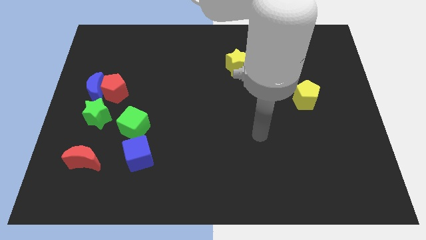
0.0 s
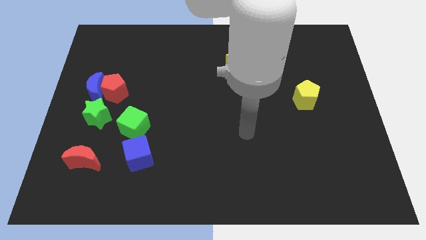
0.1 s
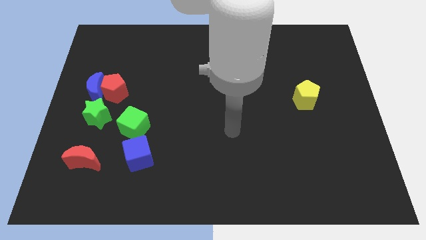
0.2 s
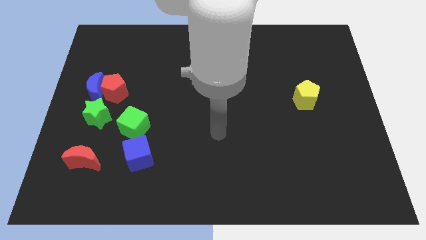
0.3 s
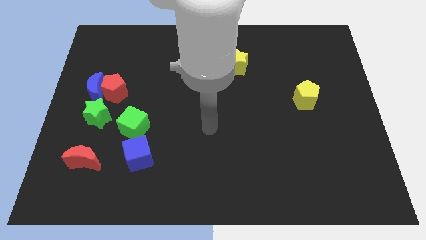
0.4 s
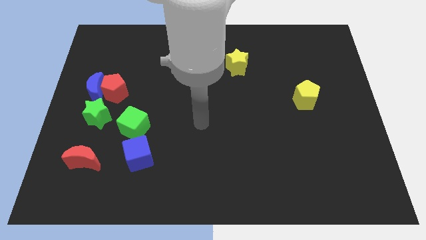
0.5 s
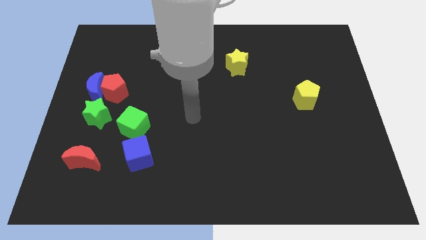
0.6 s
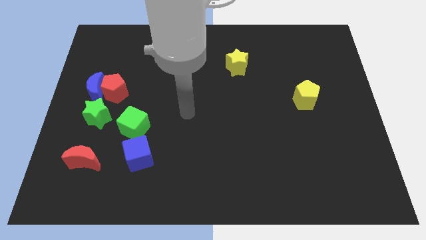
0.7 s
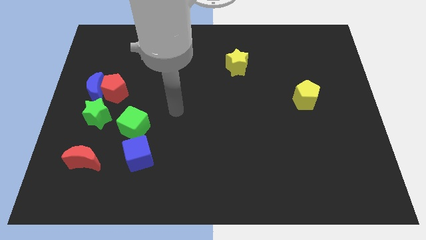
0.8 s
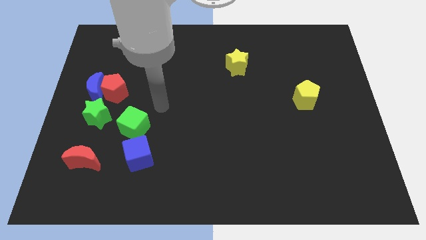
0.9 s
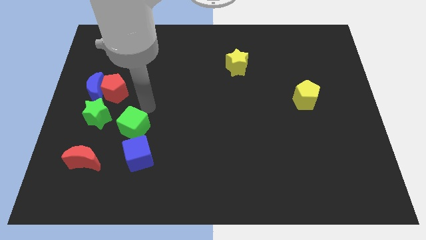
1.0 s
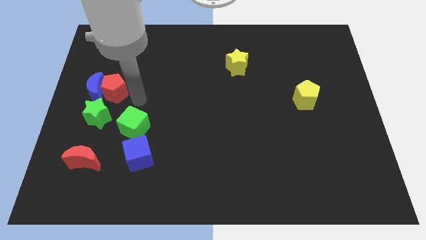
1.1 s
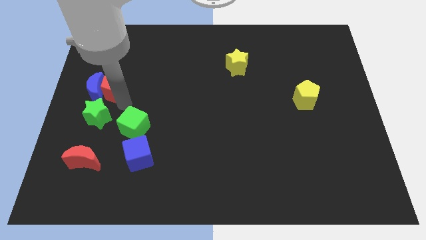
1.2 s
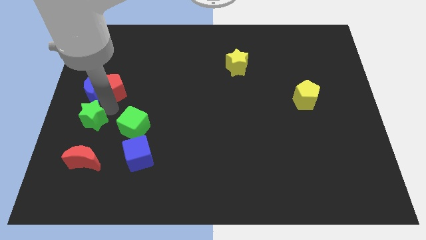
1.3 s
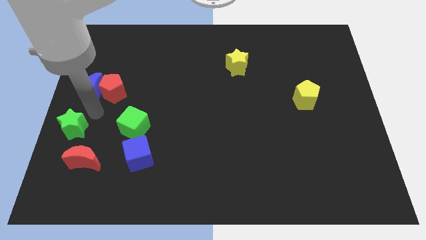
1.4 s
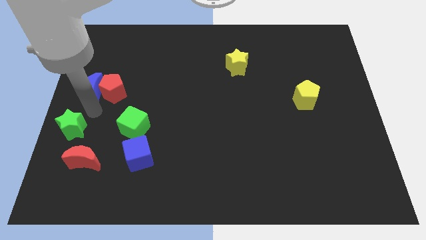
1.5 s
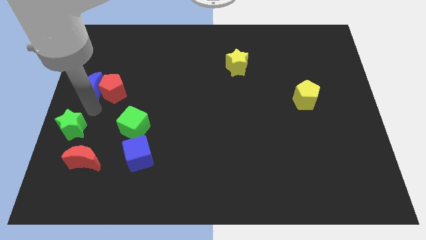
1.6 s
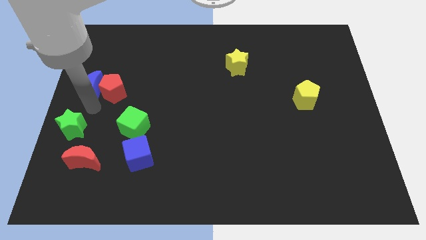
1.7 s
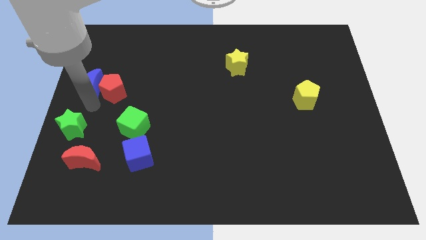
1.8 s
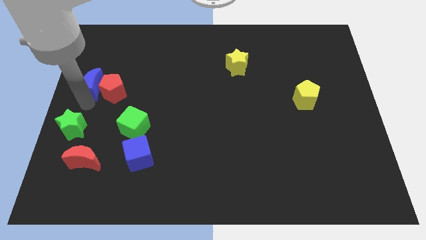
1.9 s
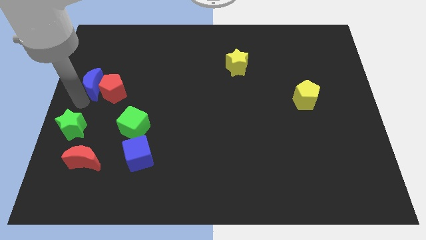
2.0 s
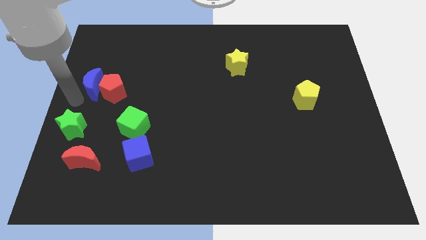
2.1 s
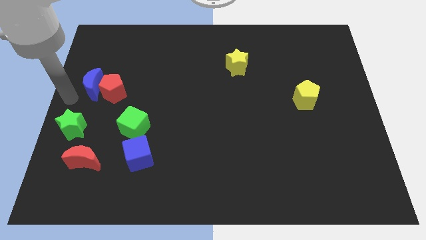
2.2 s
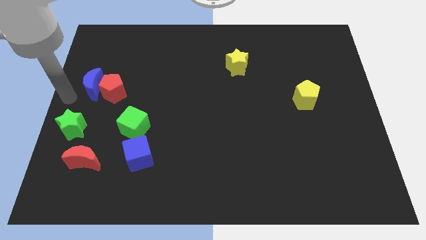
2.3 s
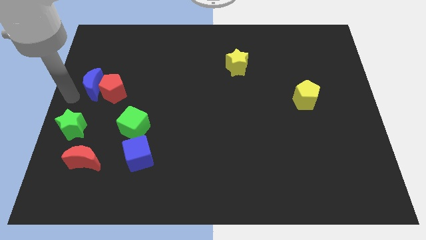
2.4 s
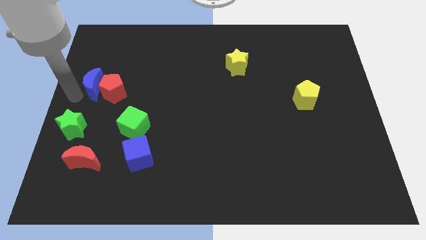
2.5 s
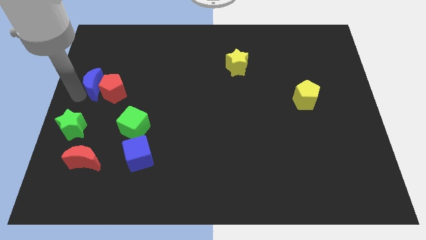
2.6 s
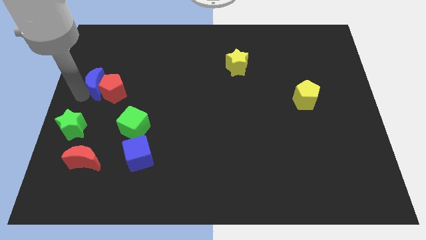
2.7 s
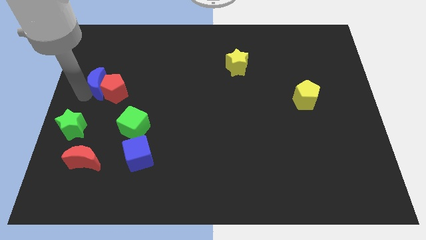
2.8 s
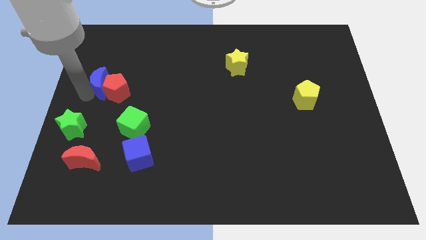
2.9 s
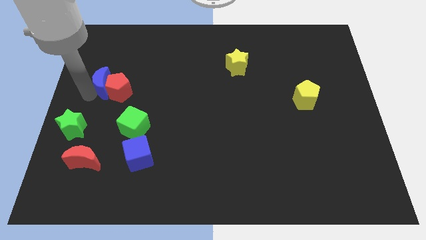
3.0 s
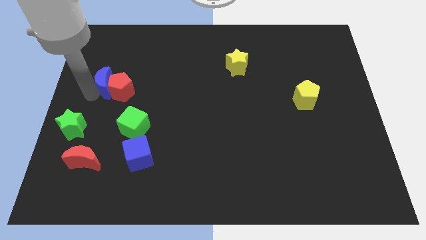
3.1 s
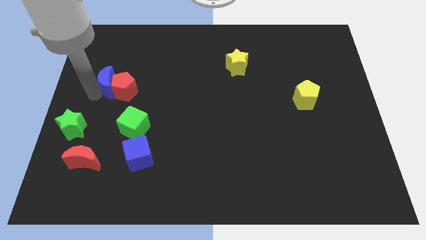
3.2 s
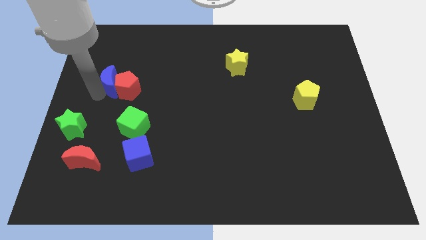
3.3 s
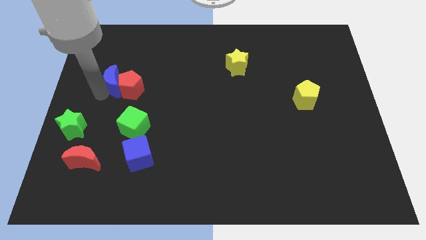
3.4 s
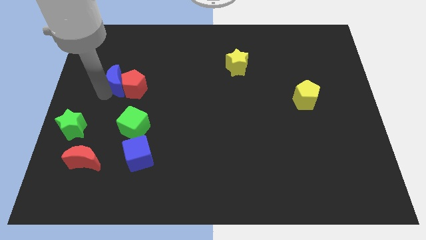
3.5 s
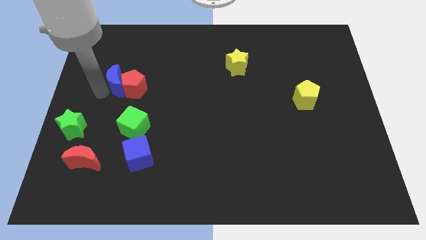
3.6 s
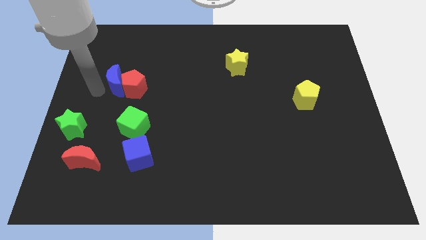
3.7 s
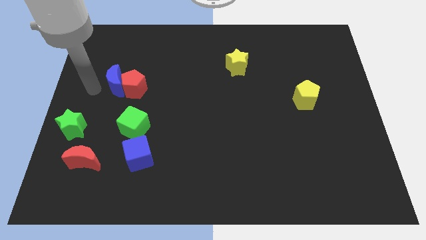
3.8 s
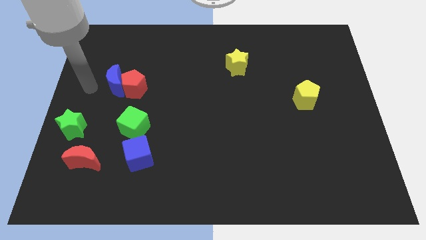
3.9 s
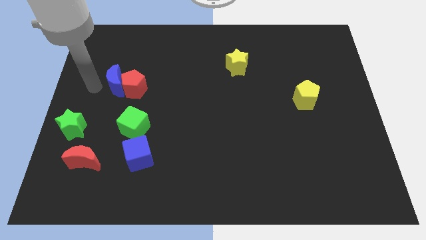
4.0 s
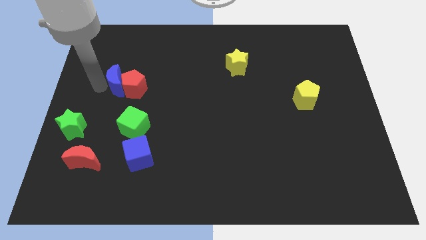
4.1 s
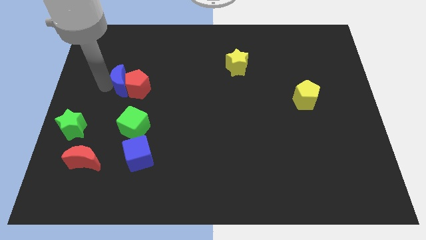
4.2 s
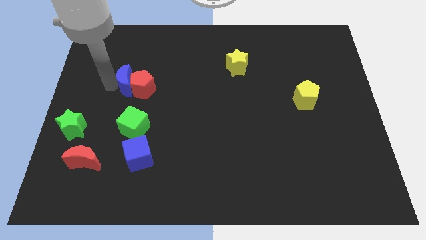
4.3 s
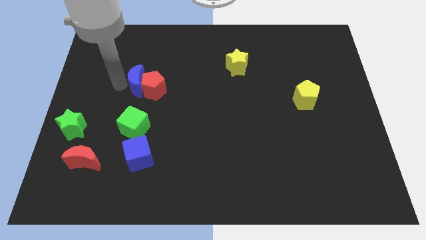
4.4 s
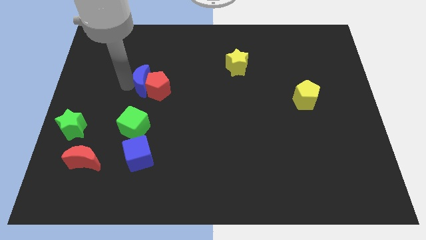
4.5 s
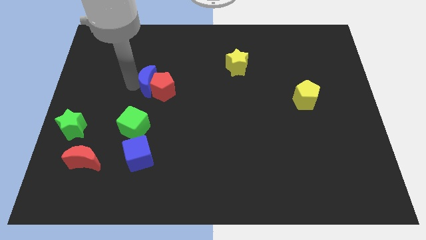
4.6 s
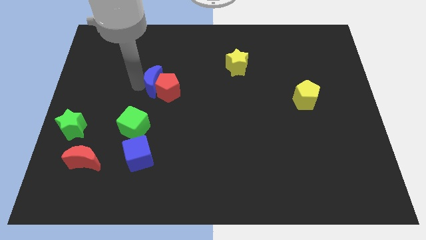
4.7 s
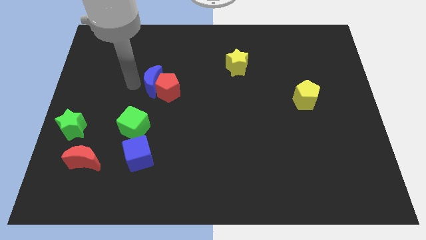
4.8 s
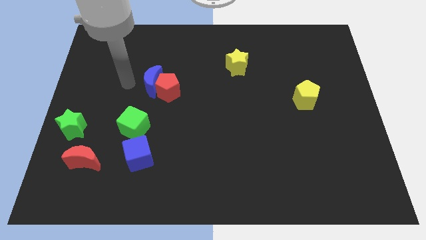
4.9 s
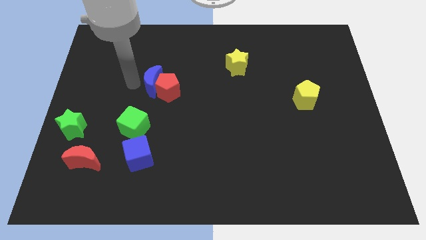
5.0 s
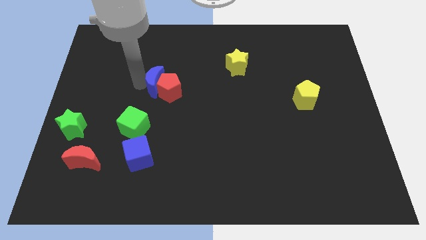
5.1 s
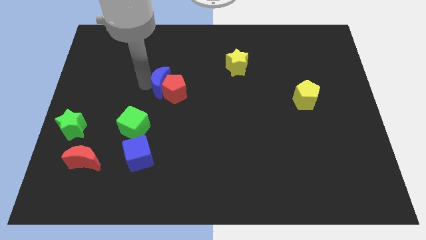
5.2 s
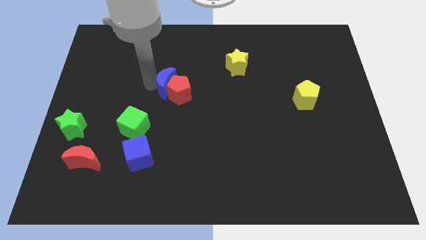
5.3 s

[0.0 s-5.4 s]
push the blue moon to the middle of the board

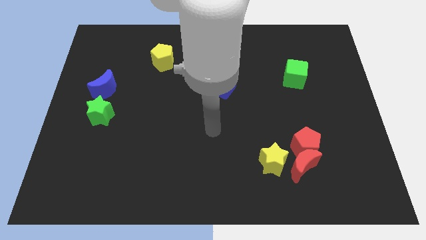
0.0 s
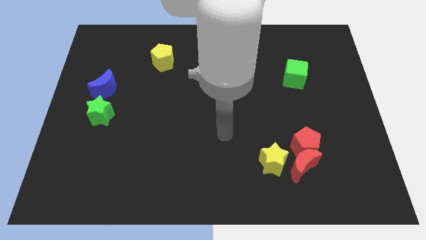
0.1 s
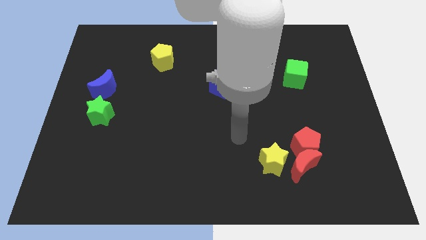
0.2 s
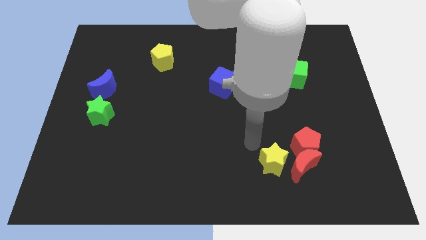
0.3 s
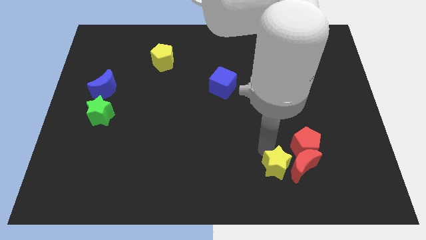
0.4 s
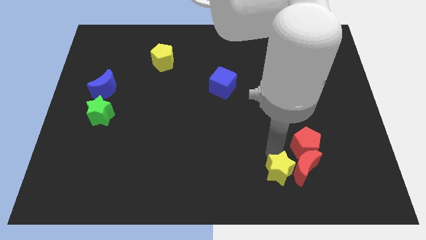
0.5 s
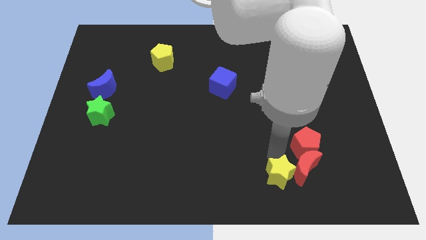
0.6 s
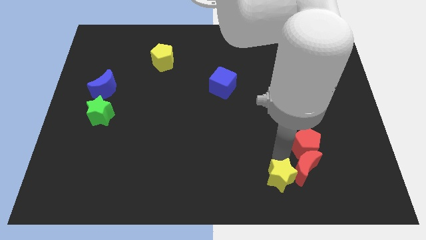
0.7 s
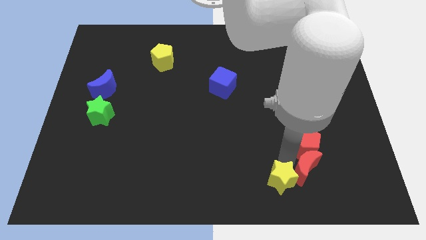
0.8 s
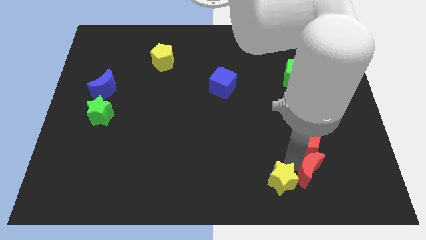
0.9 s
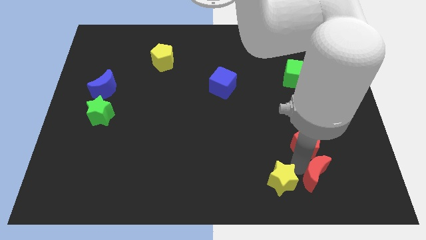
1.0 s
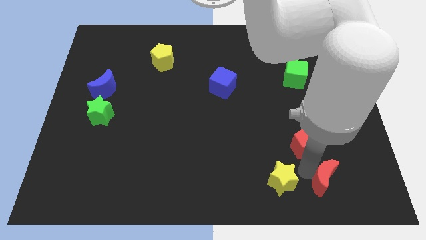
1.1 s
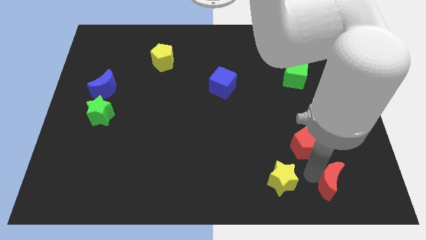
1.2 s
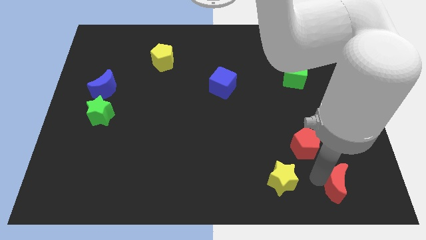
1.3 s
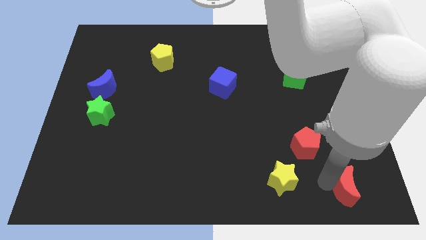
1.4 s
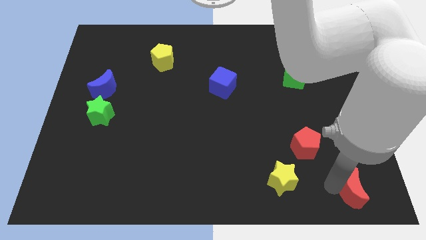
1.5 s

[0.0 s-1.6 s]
push the red moon to the lower right corner
